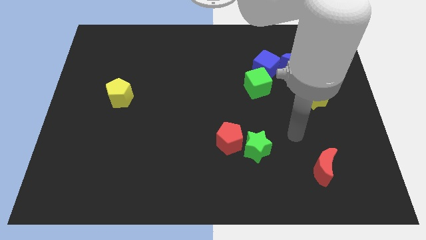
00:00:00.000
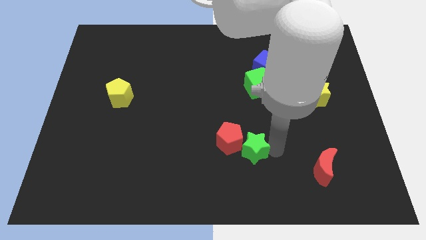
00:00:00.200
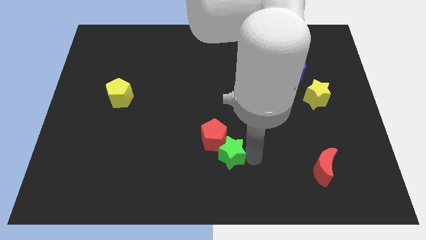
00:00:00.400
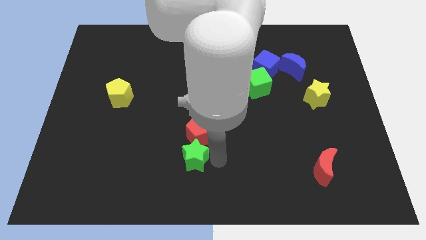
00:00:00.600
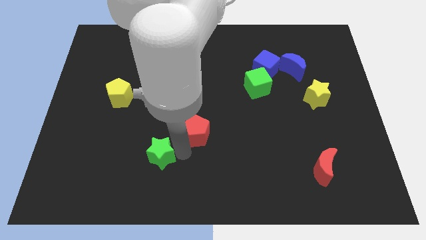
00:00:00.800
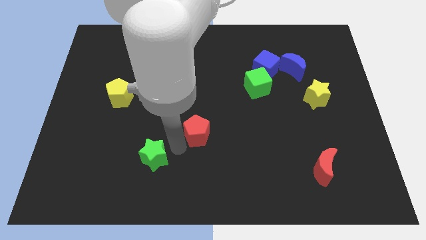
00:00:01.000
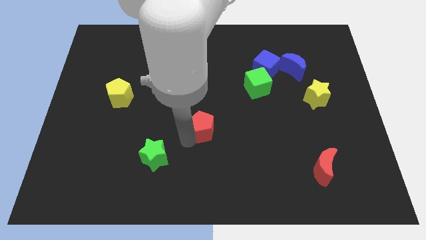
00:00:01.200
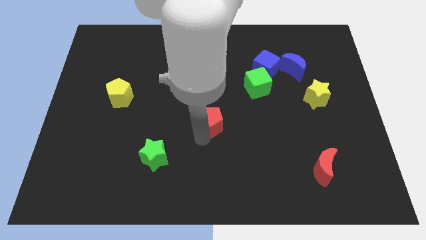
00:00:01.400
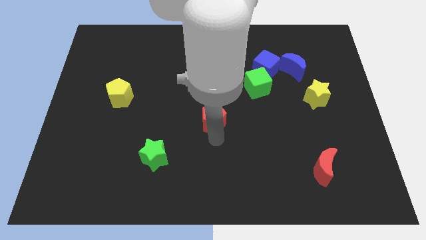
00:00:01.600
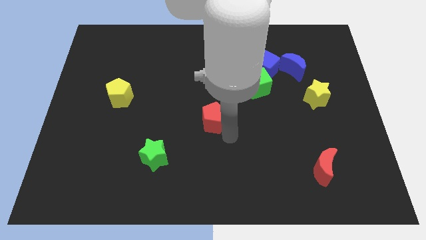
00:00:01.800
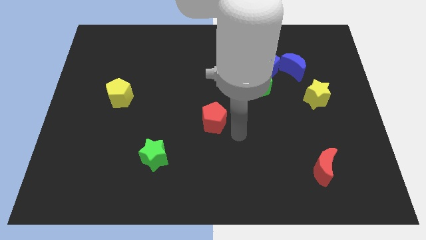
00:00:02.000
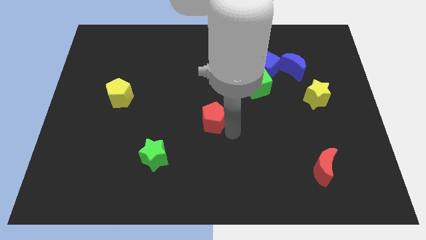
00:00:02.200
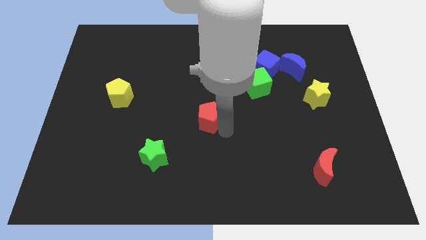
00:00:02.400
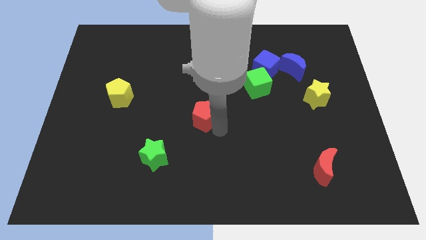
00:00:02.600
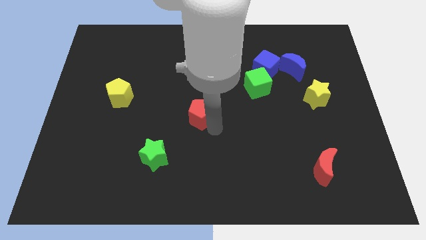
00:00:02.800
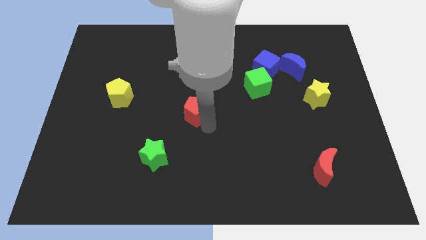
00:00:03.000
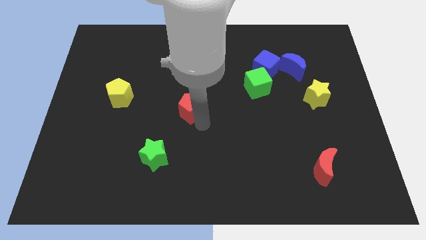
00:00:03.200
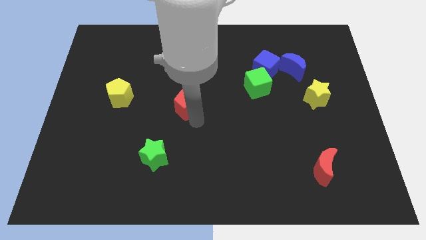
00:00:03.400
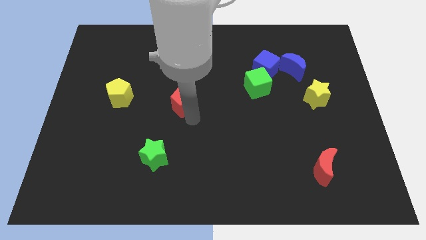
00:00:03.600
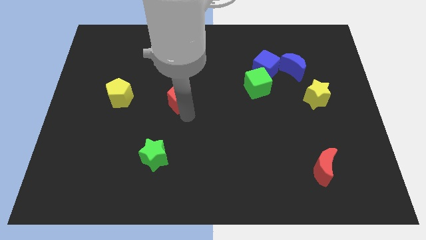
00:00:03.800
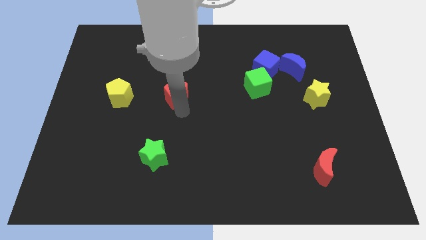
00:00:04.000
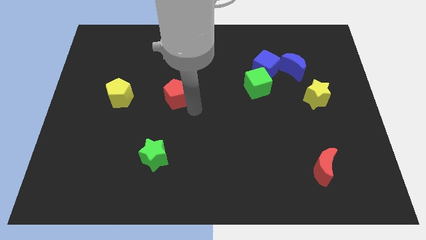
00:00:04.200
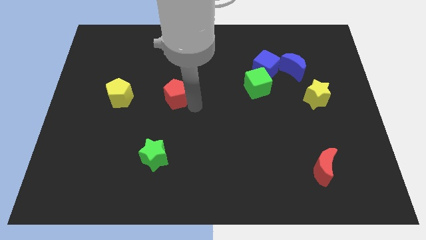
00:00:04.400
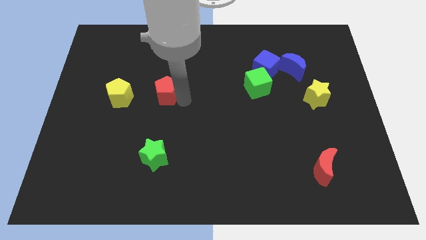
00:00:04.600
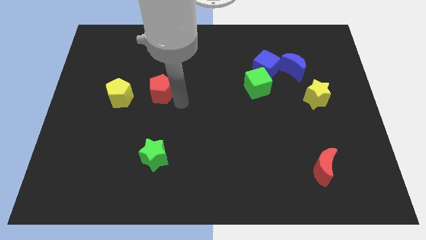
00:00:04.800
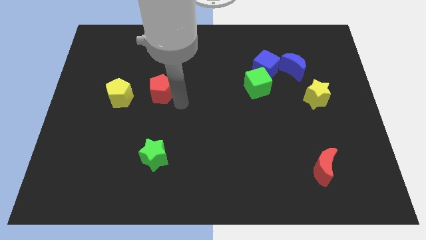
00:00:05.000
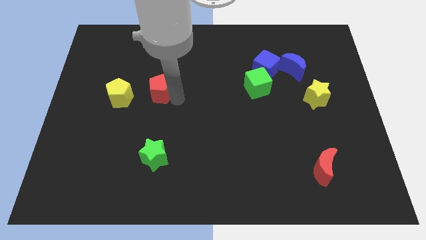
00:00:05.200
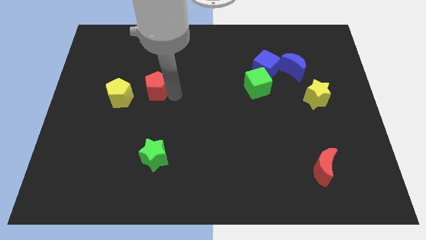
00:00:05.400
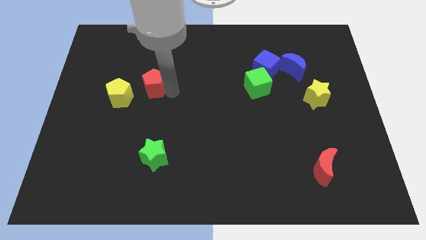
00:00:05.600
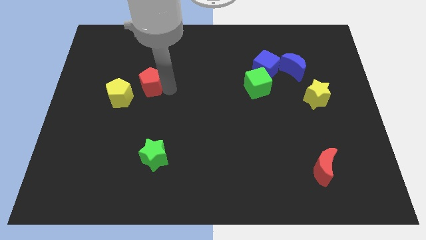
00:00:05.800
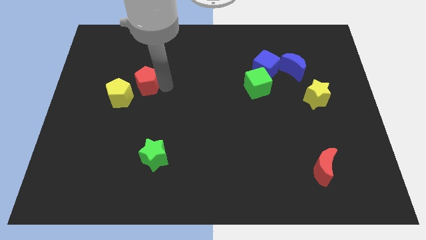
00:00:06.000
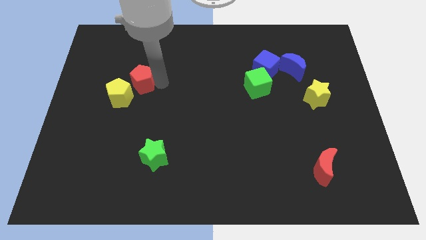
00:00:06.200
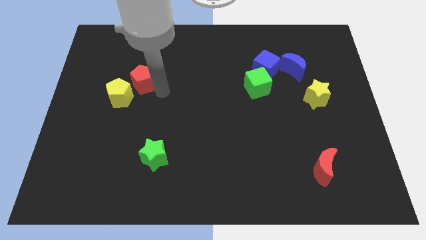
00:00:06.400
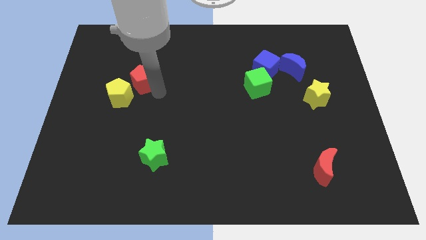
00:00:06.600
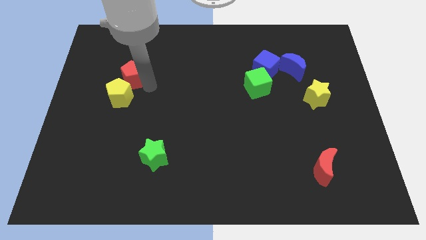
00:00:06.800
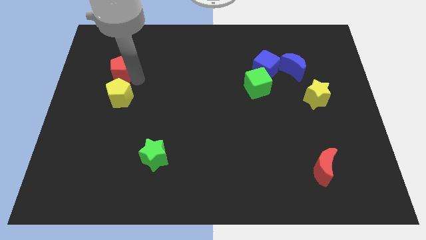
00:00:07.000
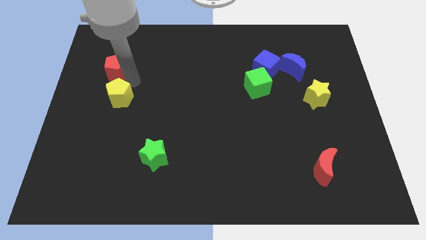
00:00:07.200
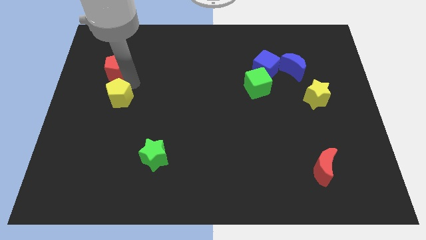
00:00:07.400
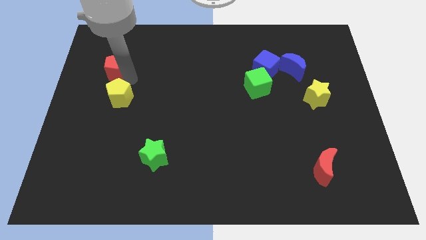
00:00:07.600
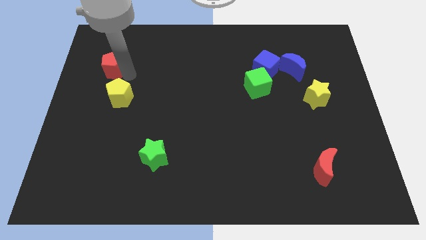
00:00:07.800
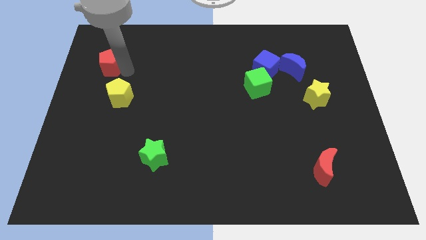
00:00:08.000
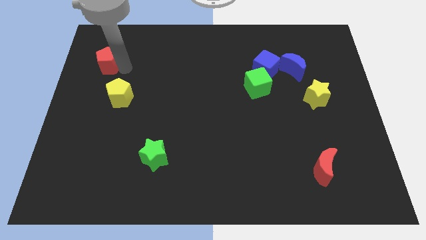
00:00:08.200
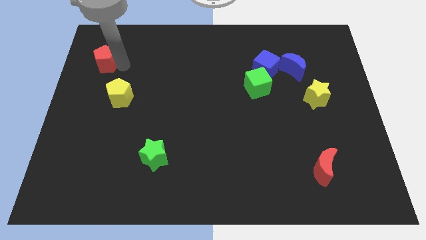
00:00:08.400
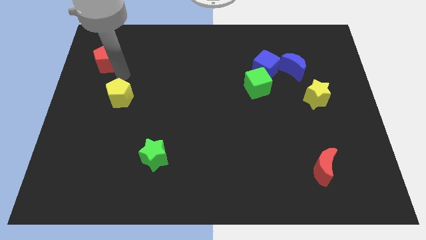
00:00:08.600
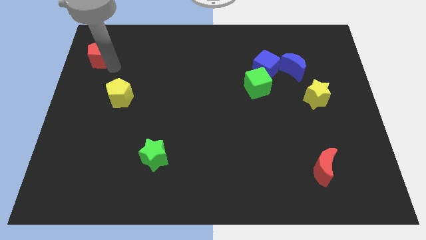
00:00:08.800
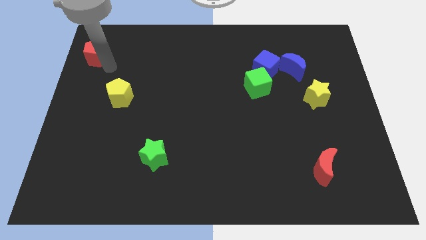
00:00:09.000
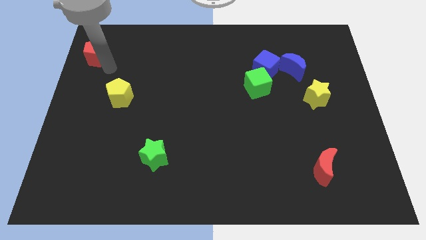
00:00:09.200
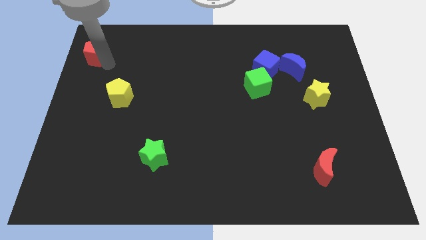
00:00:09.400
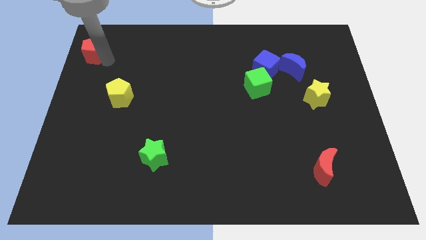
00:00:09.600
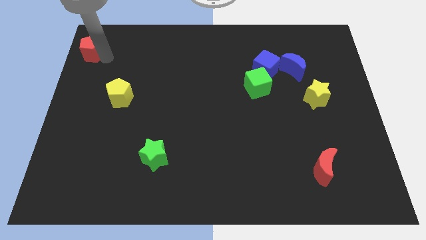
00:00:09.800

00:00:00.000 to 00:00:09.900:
put the red pentagon to the top left of the board

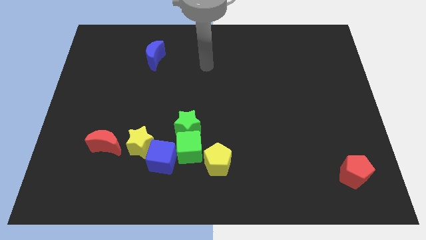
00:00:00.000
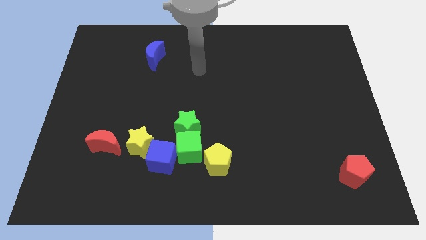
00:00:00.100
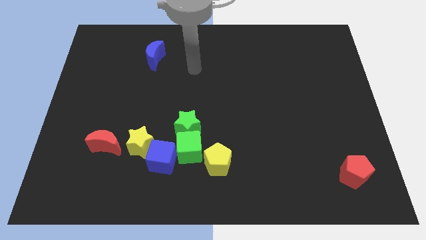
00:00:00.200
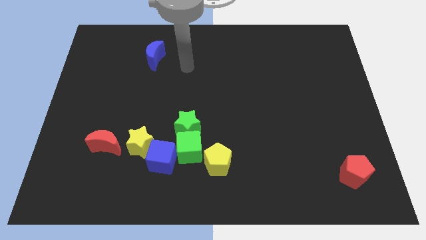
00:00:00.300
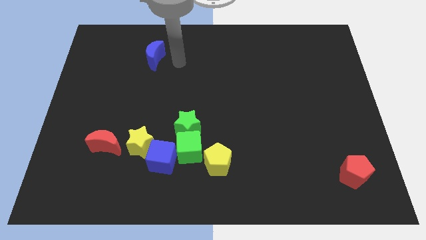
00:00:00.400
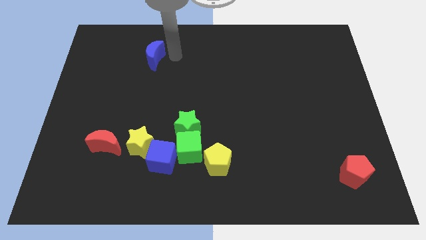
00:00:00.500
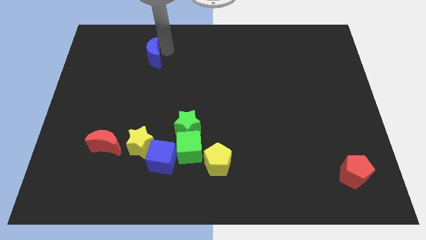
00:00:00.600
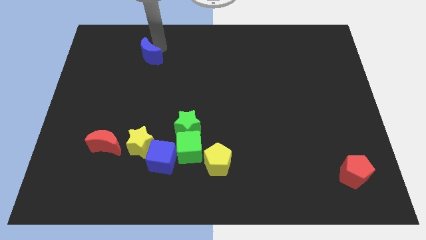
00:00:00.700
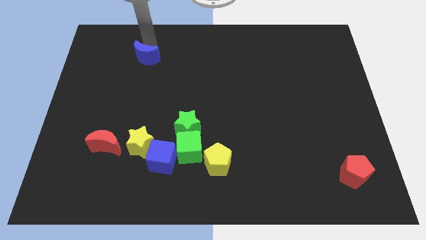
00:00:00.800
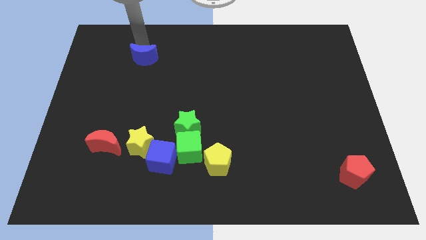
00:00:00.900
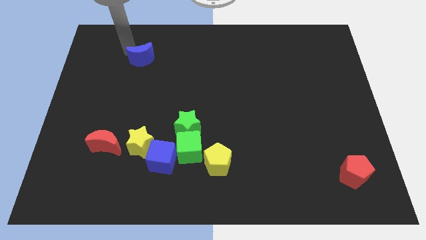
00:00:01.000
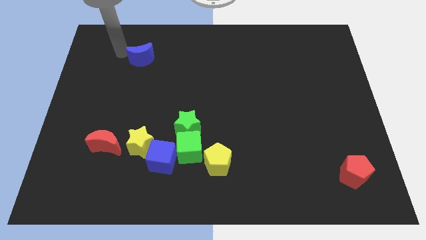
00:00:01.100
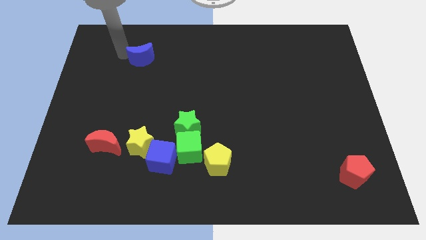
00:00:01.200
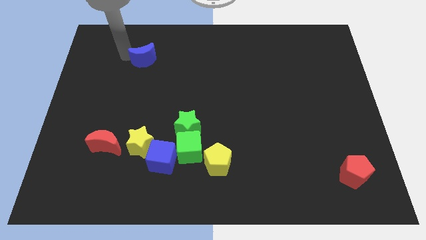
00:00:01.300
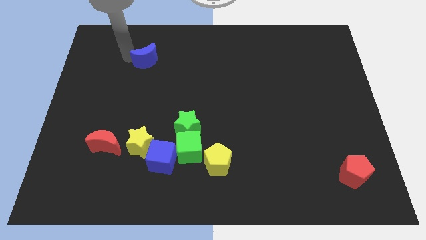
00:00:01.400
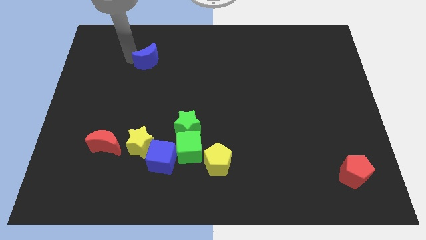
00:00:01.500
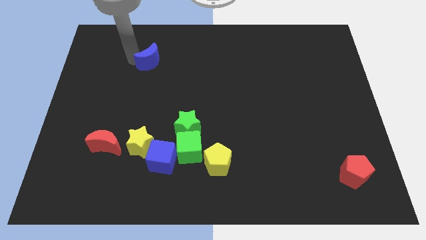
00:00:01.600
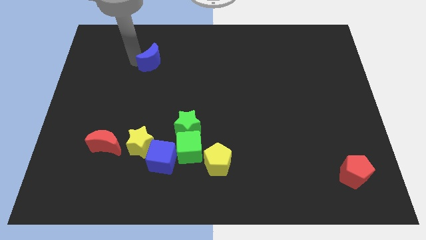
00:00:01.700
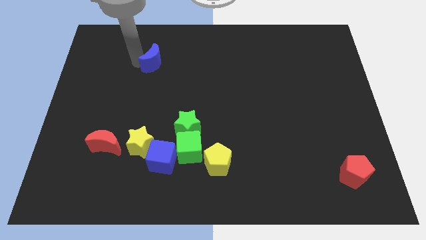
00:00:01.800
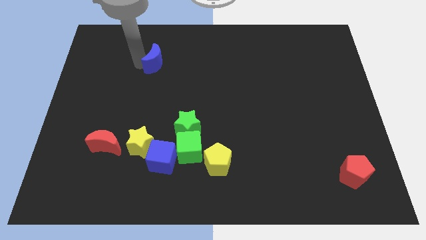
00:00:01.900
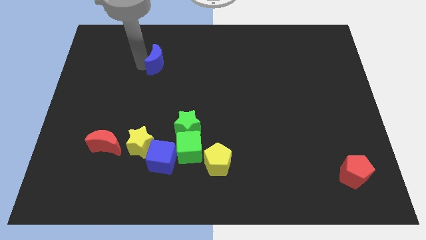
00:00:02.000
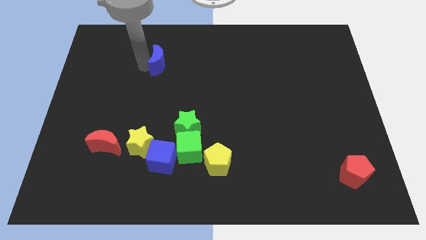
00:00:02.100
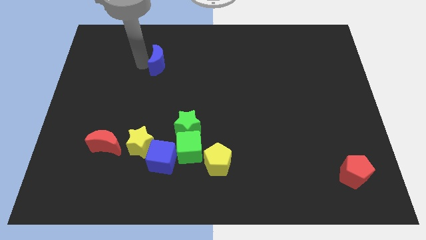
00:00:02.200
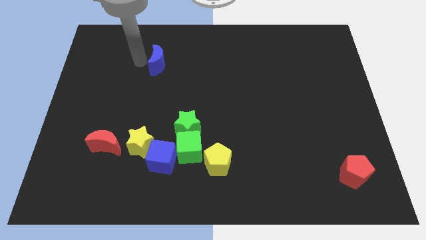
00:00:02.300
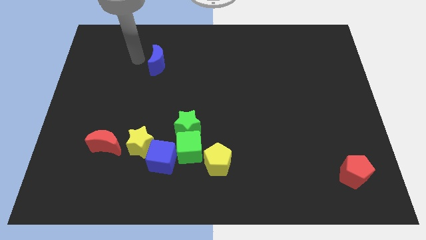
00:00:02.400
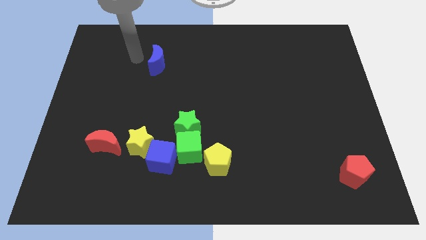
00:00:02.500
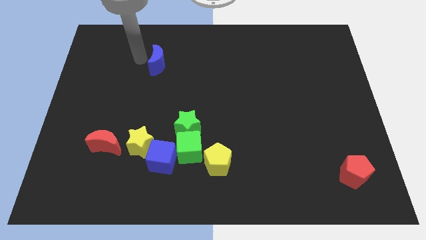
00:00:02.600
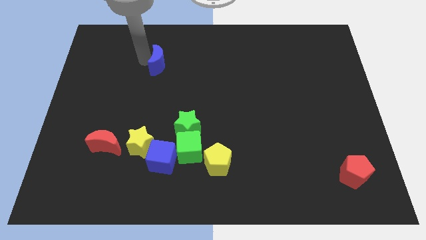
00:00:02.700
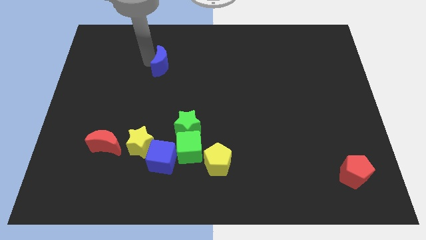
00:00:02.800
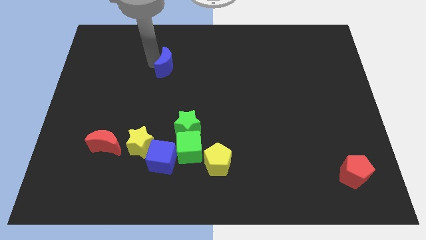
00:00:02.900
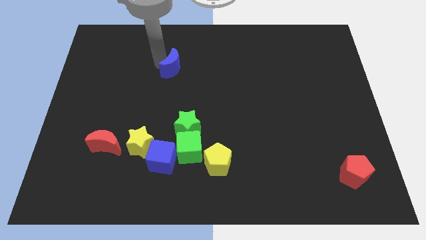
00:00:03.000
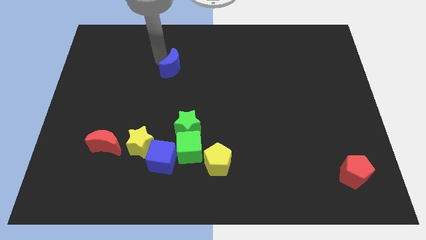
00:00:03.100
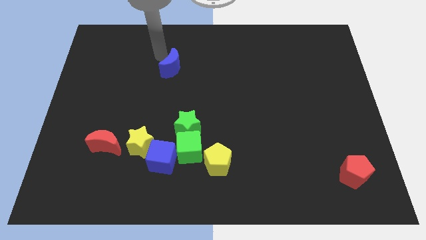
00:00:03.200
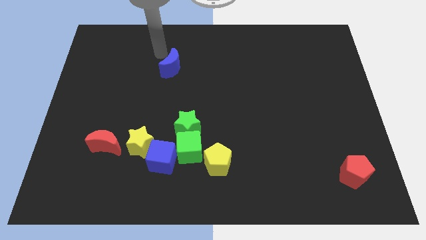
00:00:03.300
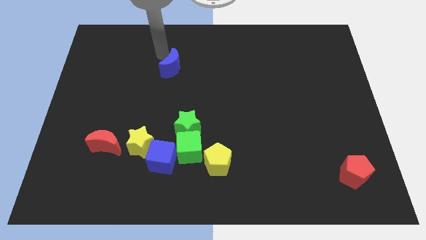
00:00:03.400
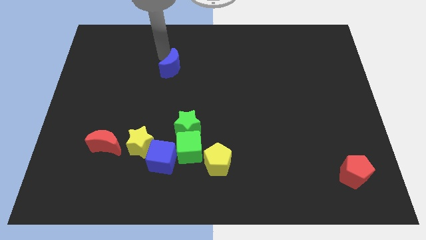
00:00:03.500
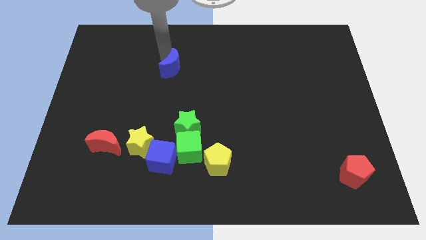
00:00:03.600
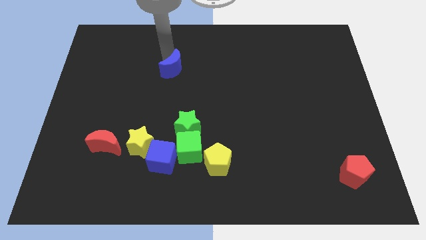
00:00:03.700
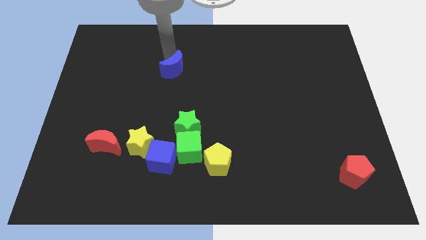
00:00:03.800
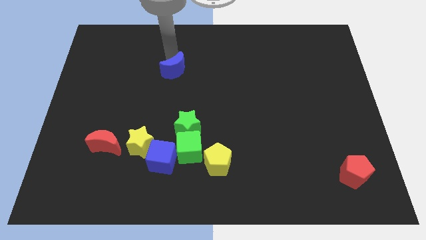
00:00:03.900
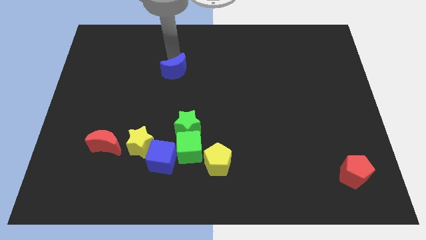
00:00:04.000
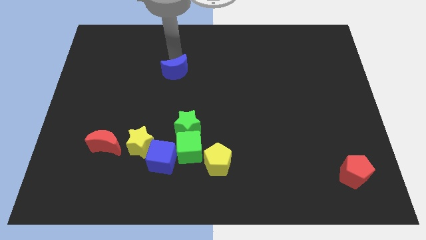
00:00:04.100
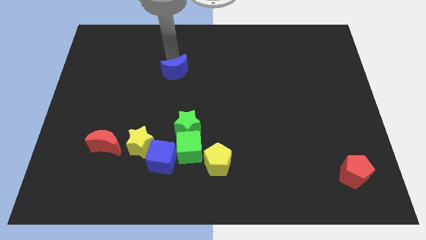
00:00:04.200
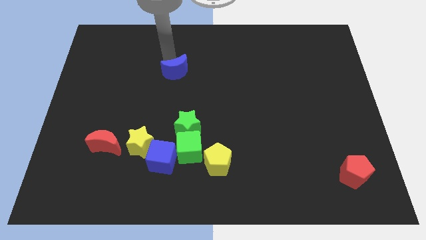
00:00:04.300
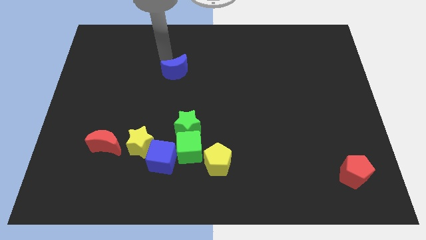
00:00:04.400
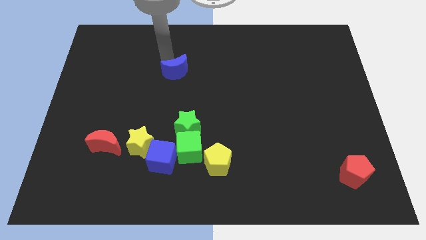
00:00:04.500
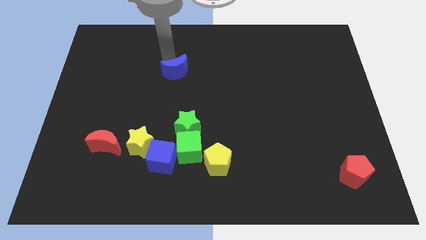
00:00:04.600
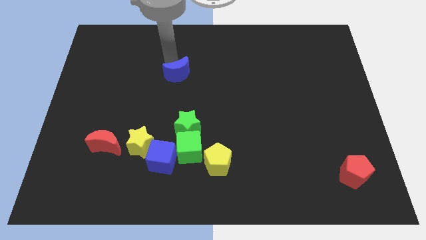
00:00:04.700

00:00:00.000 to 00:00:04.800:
slide the blue moon to the middle of the board
